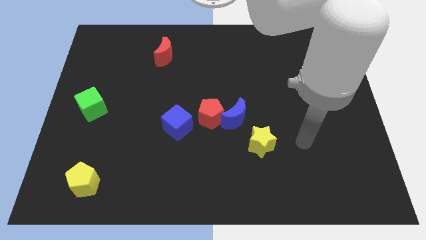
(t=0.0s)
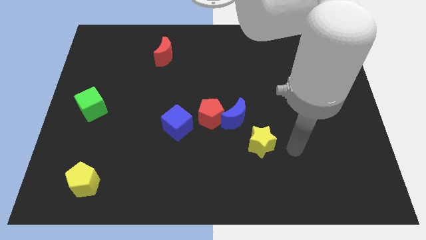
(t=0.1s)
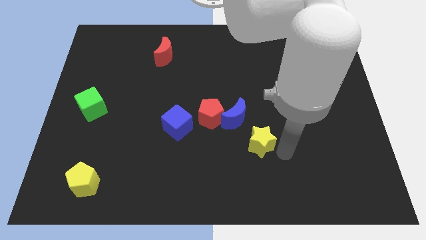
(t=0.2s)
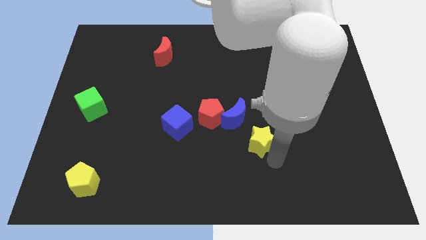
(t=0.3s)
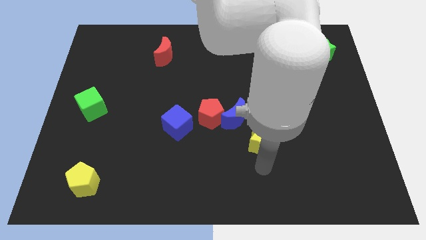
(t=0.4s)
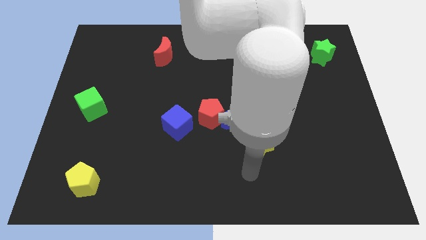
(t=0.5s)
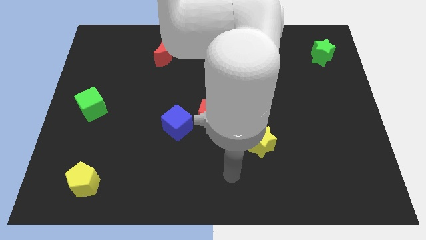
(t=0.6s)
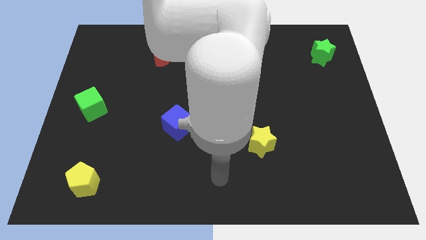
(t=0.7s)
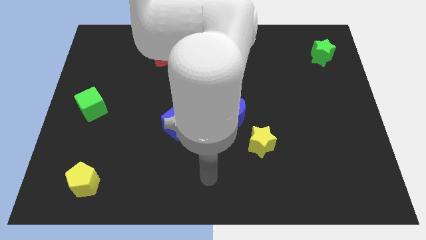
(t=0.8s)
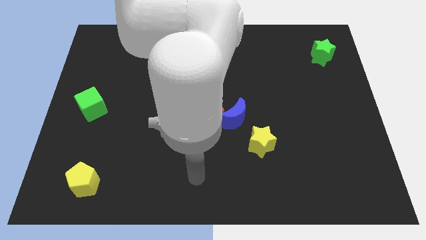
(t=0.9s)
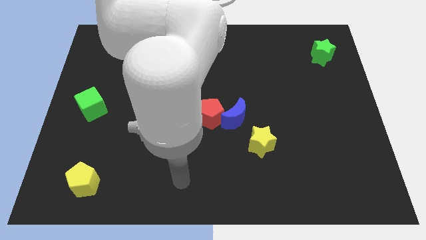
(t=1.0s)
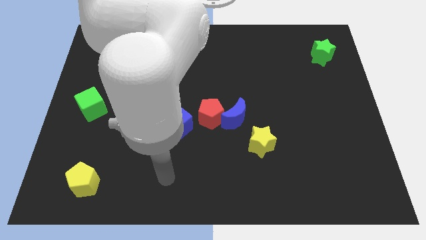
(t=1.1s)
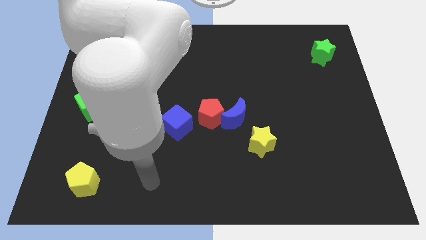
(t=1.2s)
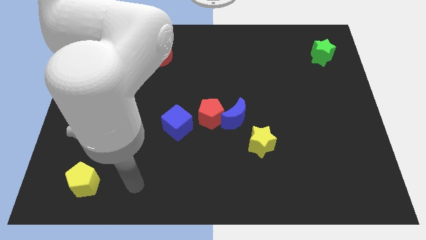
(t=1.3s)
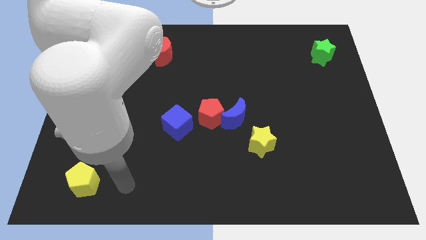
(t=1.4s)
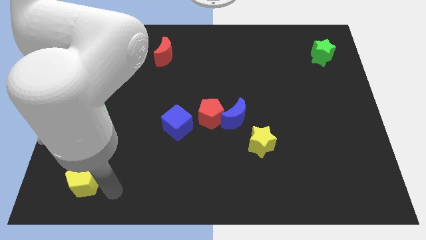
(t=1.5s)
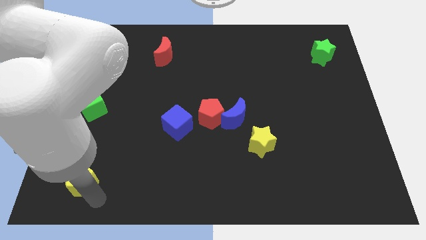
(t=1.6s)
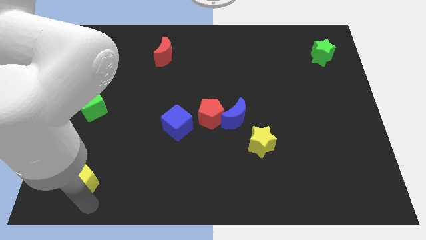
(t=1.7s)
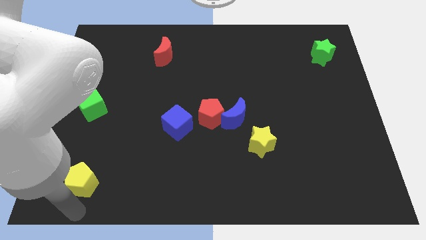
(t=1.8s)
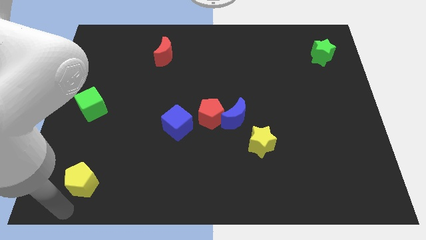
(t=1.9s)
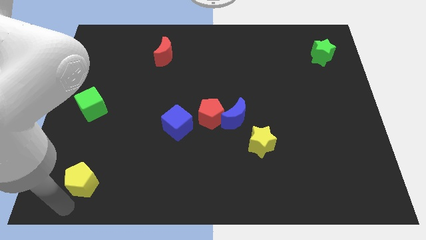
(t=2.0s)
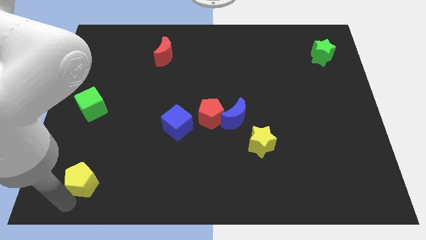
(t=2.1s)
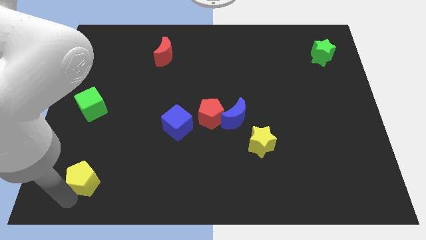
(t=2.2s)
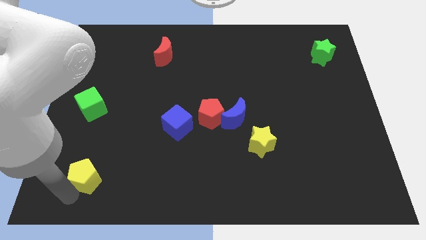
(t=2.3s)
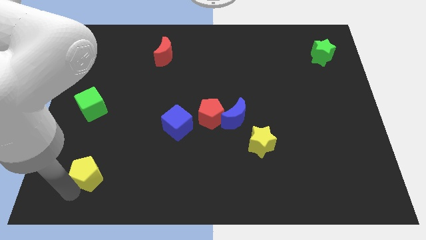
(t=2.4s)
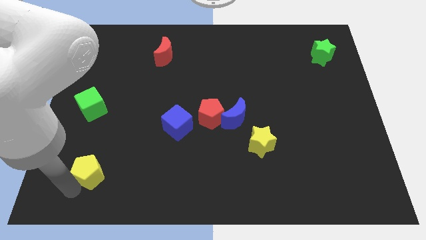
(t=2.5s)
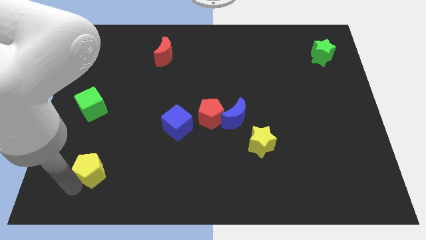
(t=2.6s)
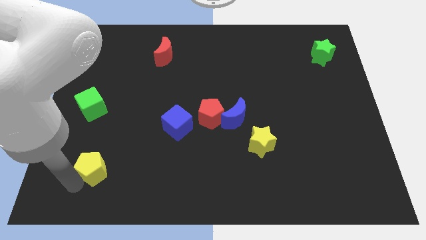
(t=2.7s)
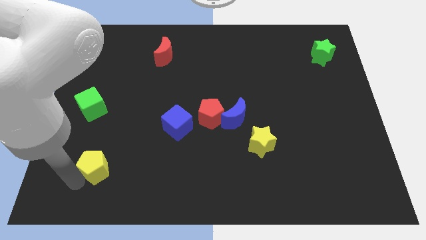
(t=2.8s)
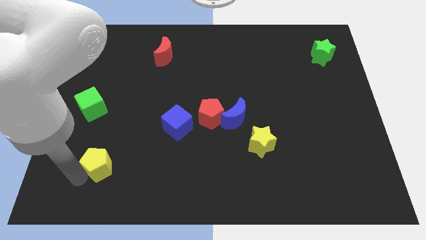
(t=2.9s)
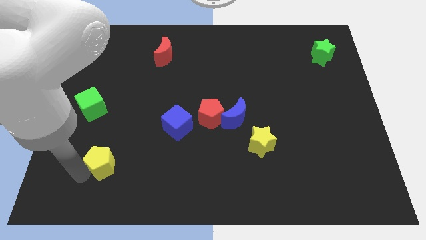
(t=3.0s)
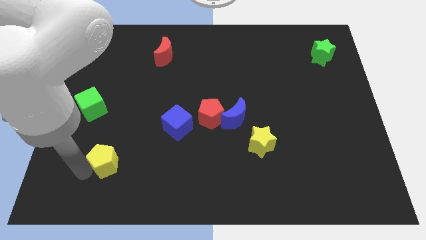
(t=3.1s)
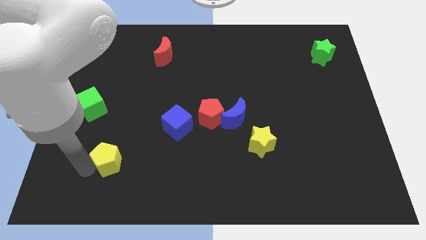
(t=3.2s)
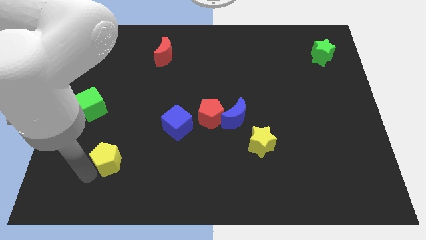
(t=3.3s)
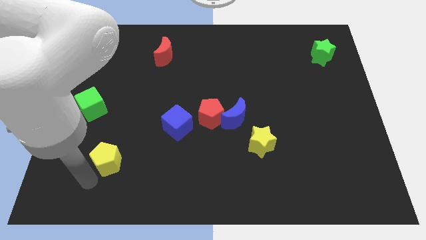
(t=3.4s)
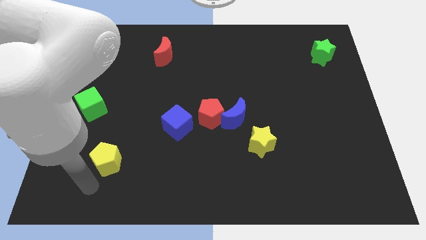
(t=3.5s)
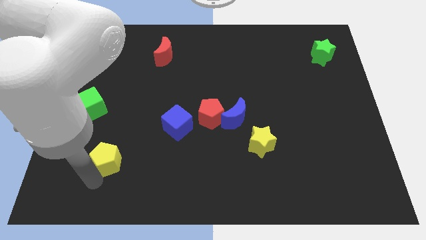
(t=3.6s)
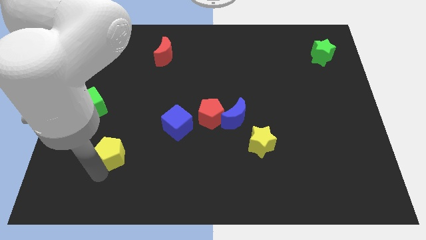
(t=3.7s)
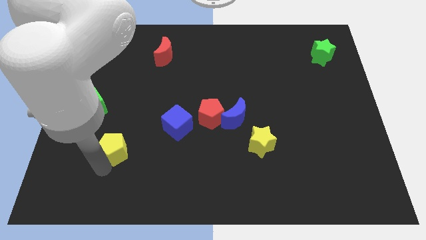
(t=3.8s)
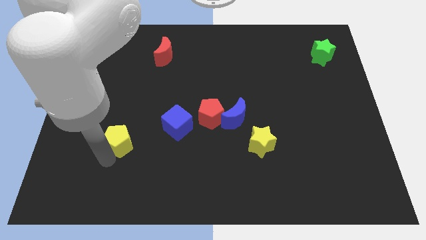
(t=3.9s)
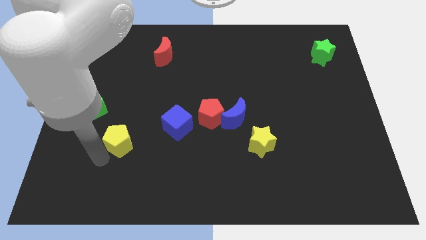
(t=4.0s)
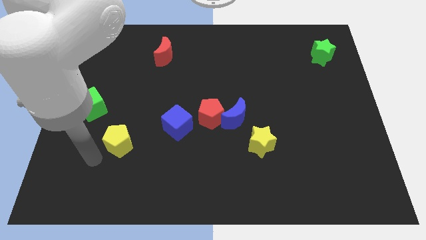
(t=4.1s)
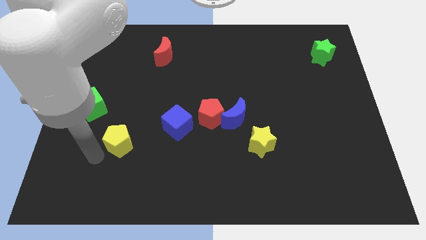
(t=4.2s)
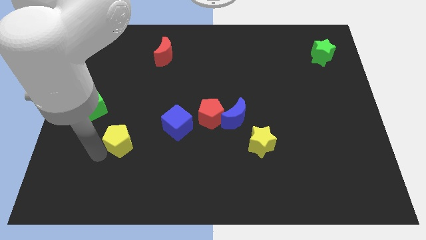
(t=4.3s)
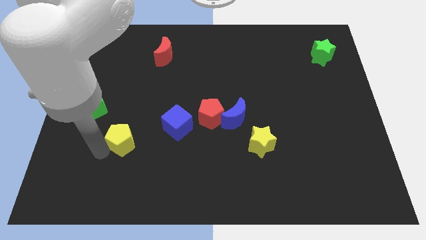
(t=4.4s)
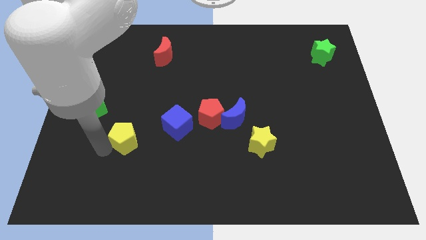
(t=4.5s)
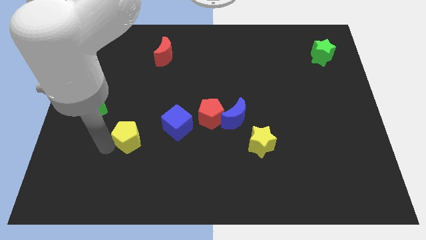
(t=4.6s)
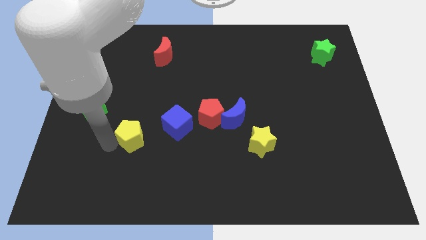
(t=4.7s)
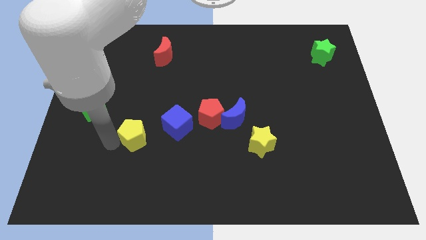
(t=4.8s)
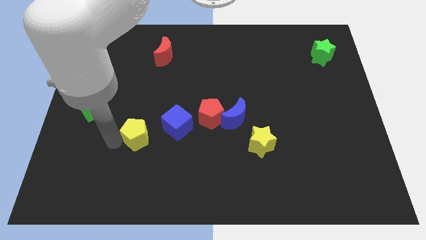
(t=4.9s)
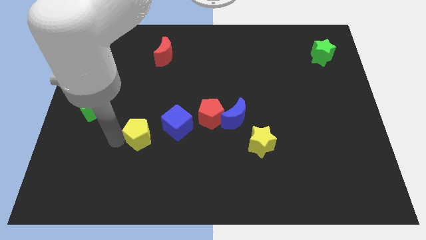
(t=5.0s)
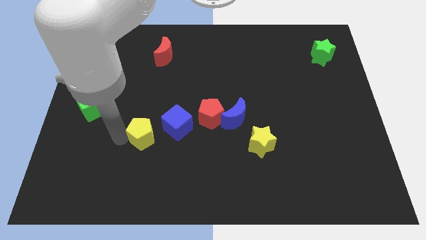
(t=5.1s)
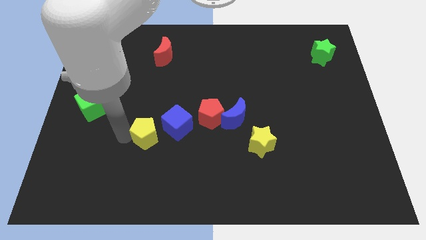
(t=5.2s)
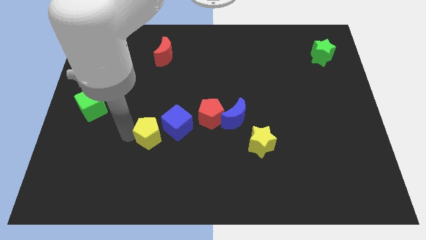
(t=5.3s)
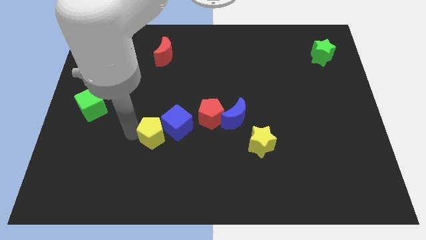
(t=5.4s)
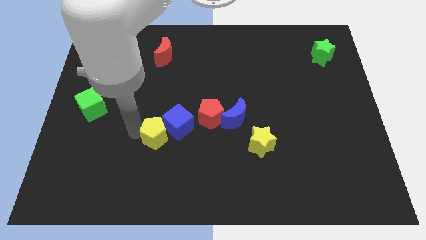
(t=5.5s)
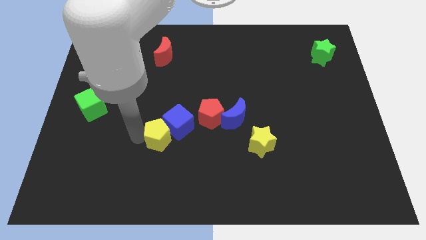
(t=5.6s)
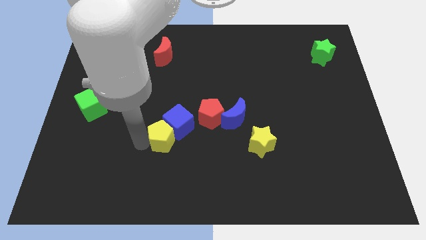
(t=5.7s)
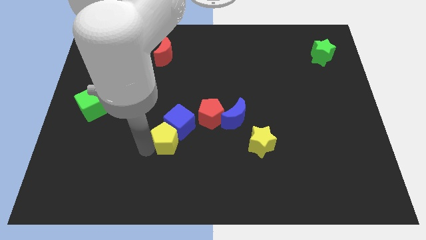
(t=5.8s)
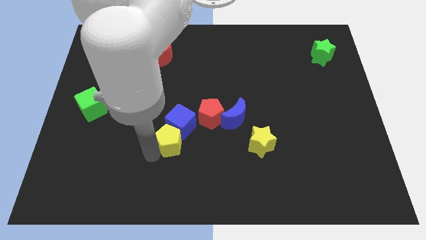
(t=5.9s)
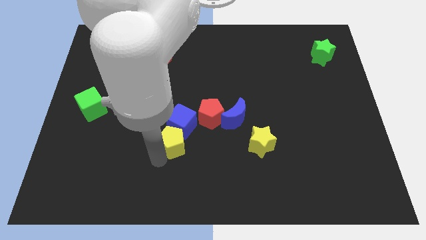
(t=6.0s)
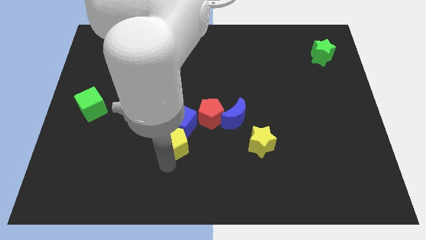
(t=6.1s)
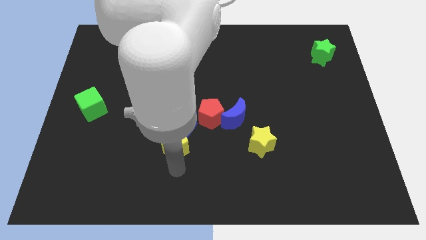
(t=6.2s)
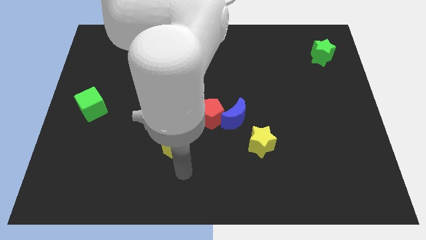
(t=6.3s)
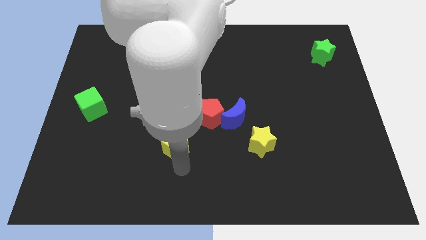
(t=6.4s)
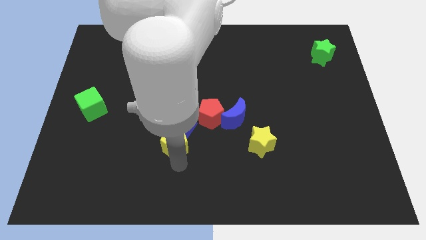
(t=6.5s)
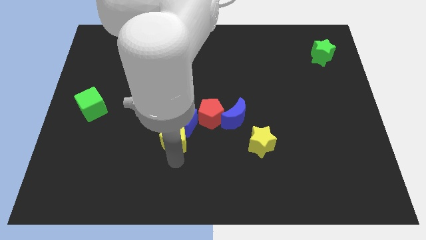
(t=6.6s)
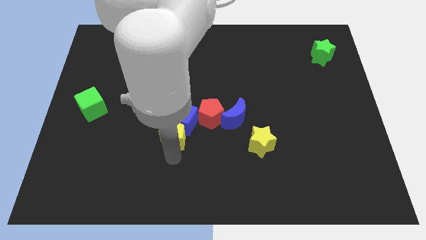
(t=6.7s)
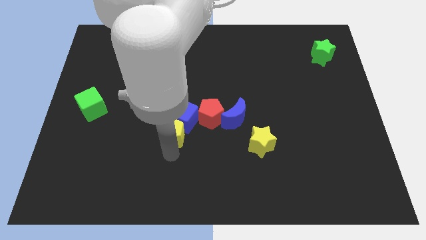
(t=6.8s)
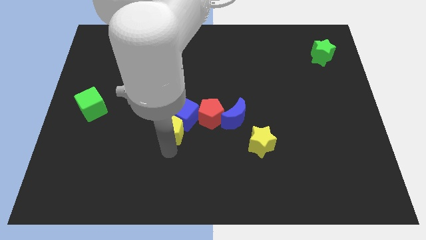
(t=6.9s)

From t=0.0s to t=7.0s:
move the yellow pentagon upwards and then right

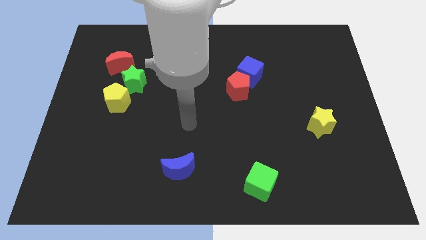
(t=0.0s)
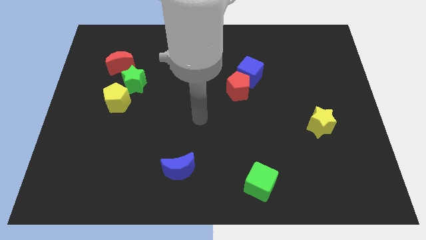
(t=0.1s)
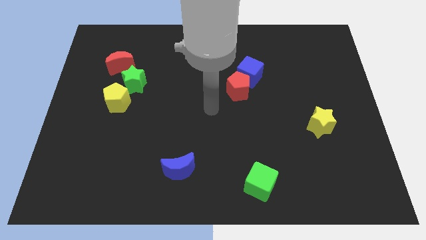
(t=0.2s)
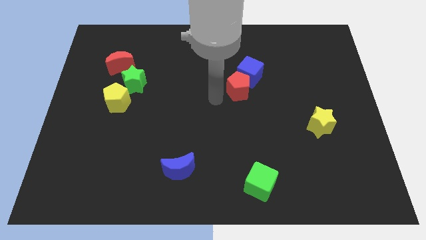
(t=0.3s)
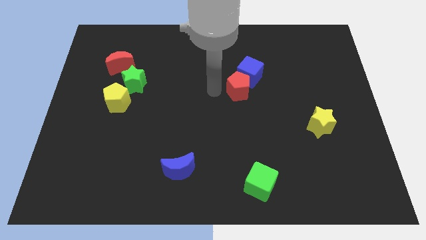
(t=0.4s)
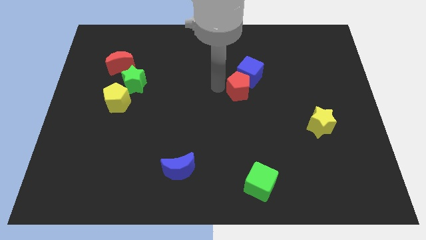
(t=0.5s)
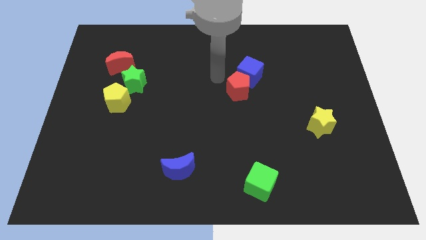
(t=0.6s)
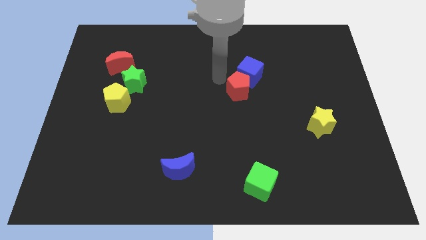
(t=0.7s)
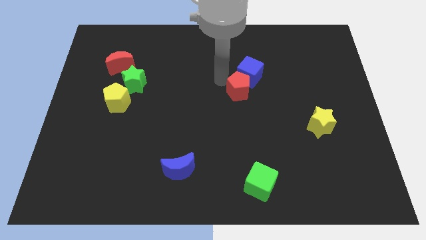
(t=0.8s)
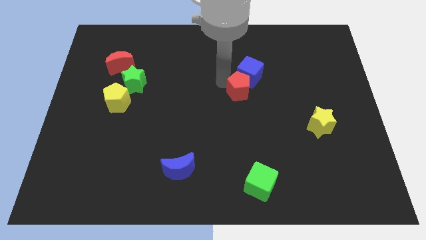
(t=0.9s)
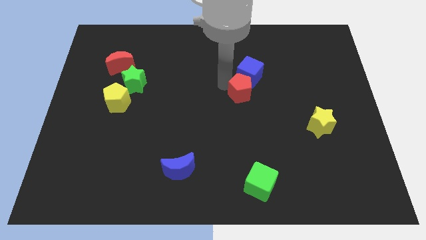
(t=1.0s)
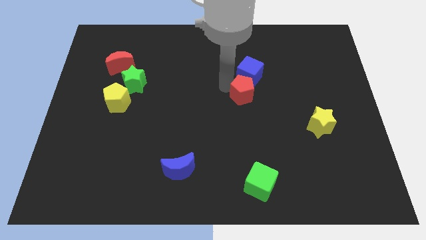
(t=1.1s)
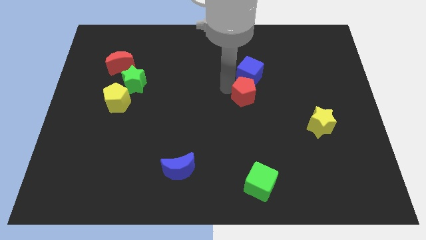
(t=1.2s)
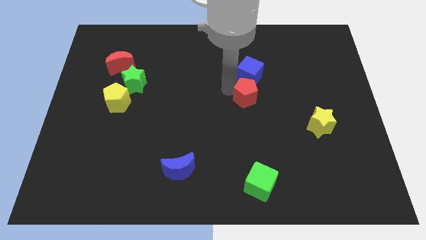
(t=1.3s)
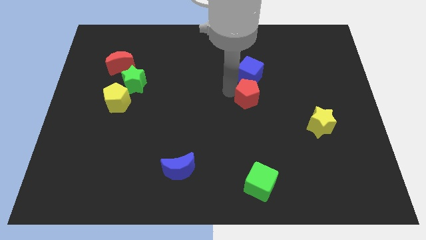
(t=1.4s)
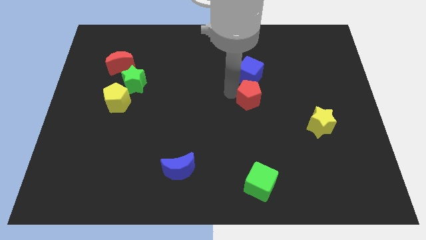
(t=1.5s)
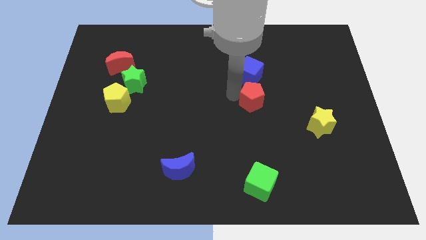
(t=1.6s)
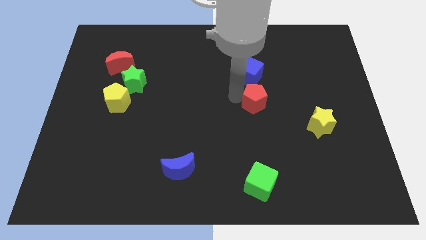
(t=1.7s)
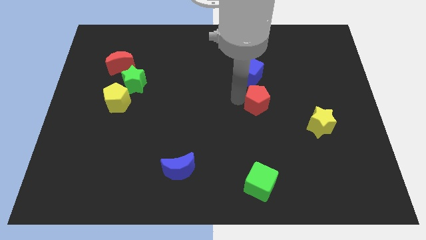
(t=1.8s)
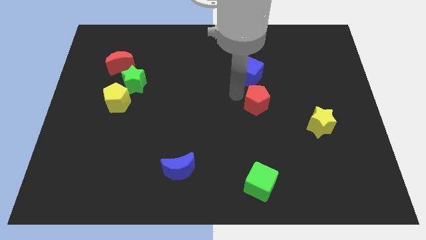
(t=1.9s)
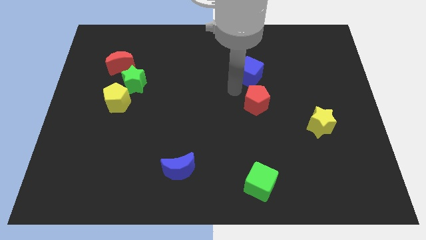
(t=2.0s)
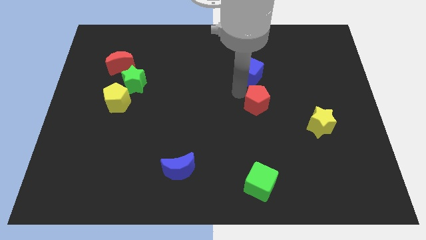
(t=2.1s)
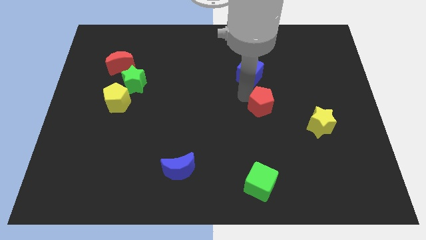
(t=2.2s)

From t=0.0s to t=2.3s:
move the red pentagon downwards and to the right a little
